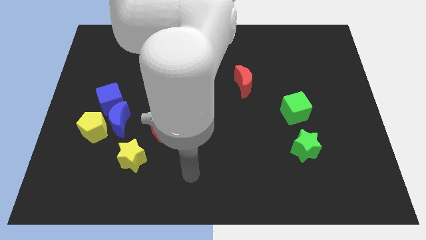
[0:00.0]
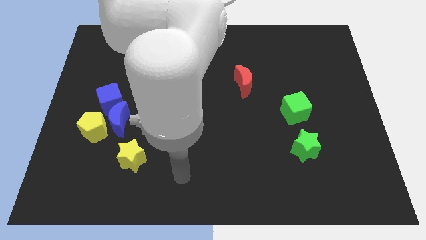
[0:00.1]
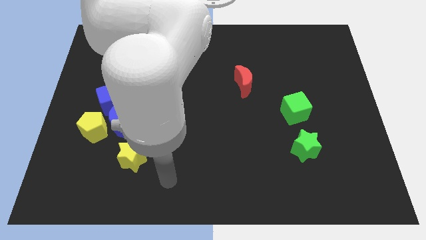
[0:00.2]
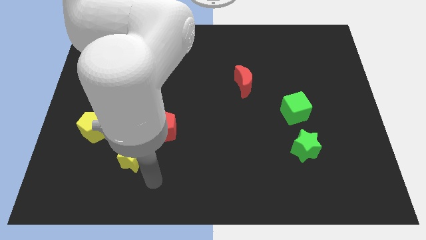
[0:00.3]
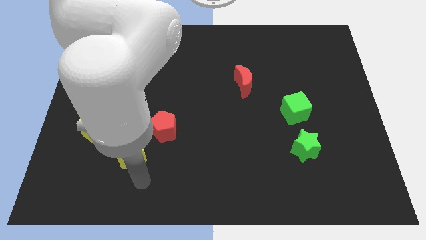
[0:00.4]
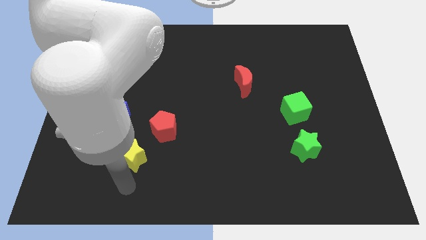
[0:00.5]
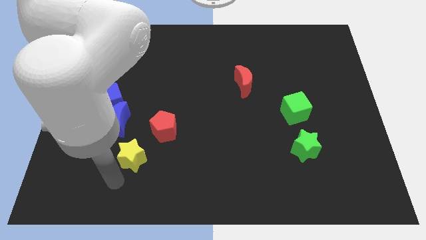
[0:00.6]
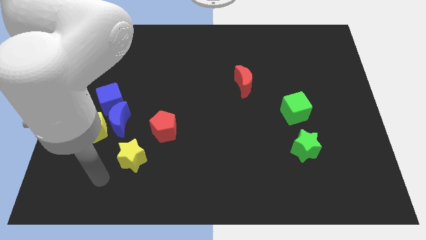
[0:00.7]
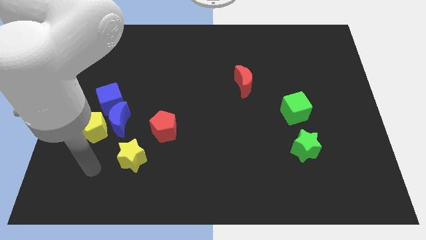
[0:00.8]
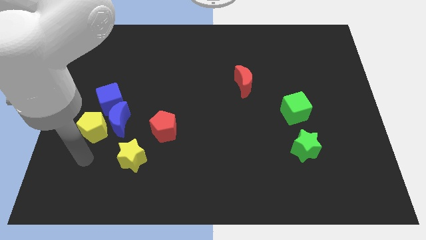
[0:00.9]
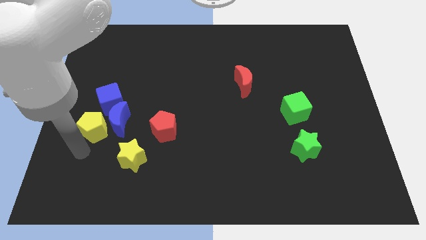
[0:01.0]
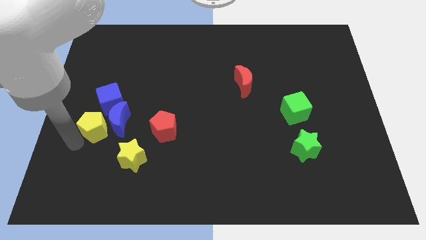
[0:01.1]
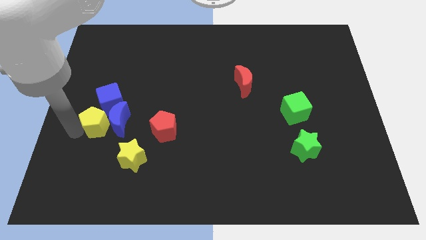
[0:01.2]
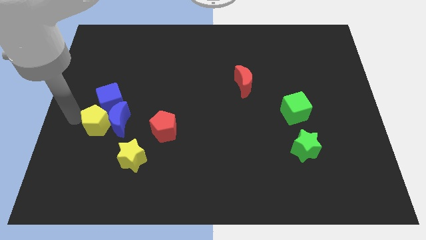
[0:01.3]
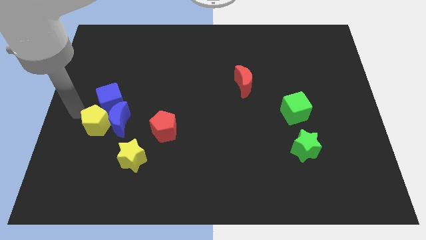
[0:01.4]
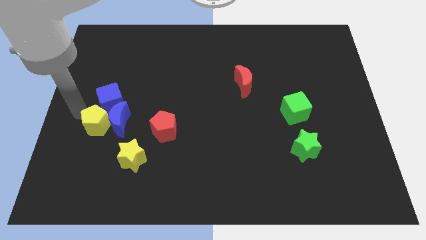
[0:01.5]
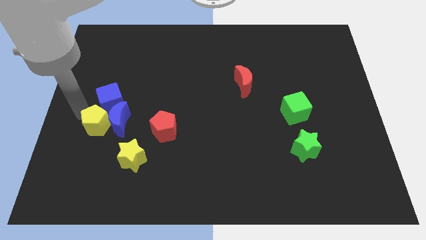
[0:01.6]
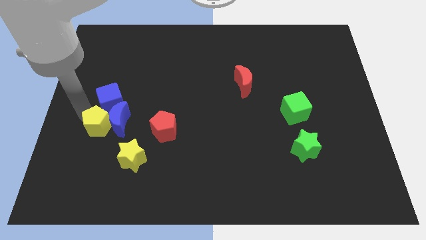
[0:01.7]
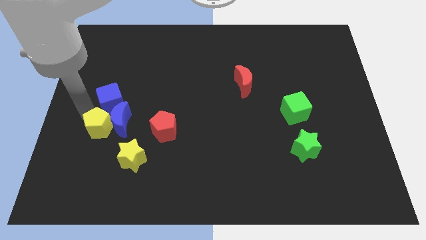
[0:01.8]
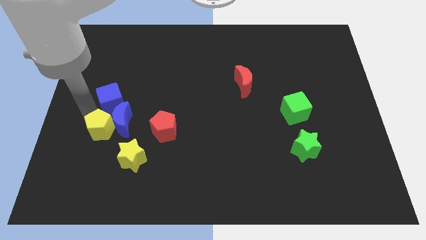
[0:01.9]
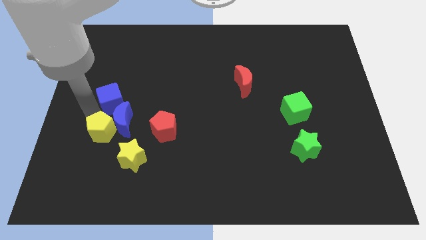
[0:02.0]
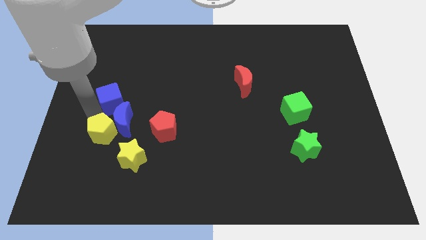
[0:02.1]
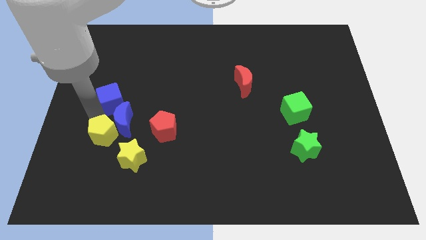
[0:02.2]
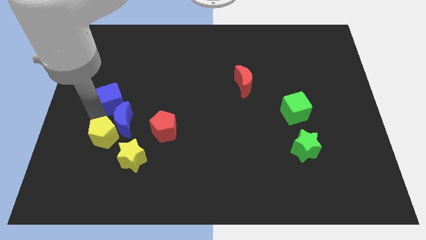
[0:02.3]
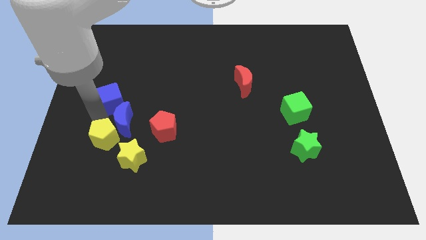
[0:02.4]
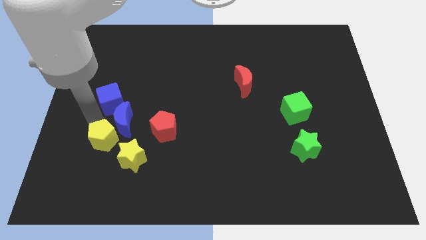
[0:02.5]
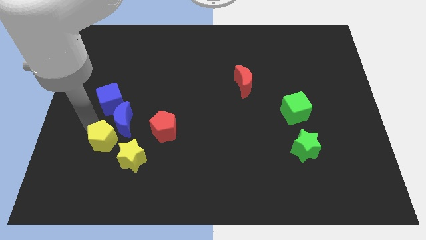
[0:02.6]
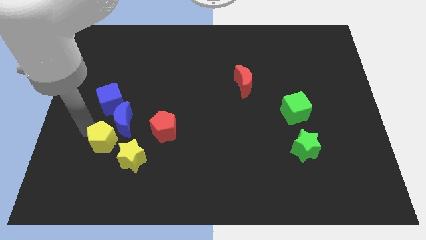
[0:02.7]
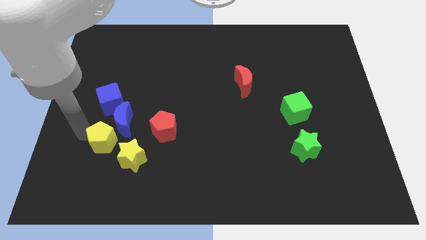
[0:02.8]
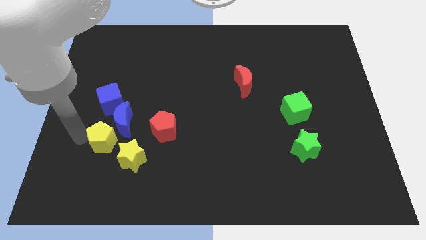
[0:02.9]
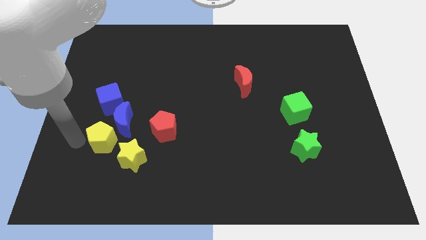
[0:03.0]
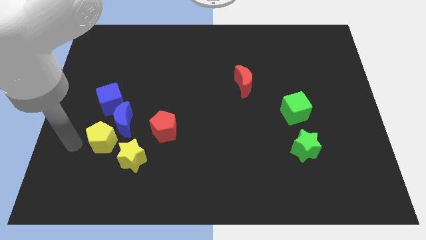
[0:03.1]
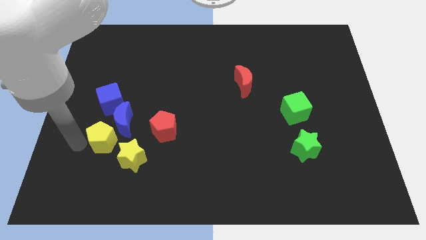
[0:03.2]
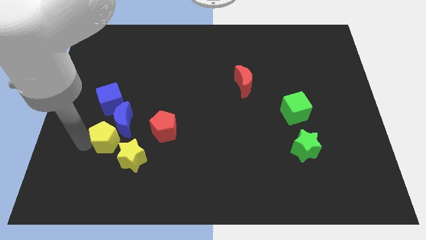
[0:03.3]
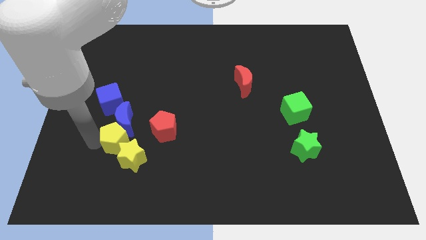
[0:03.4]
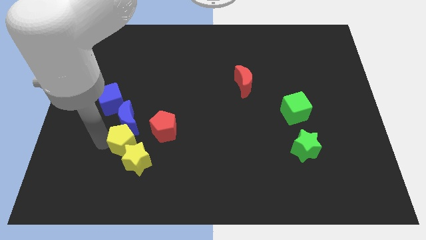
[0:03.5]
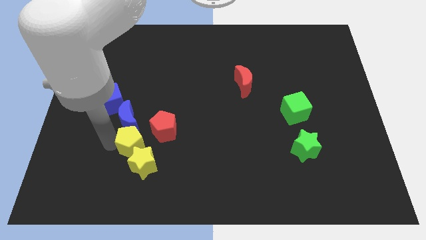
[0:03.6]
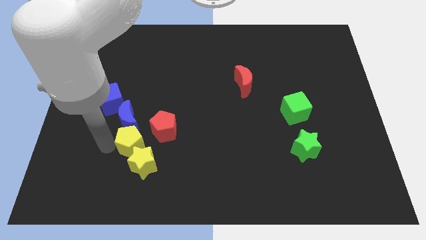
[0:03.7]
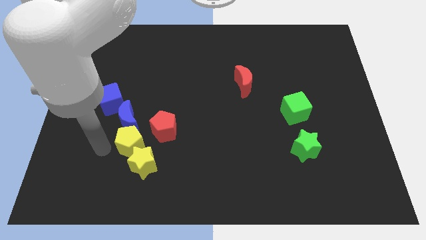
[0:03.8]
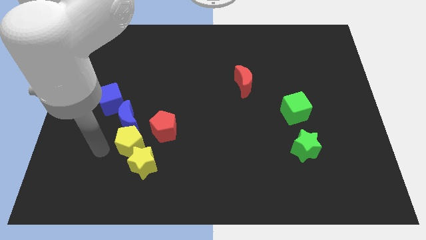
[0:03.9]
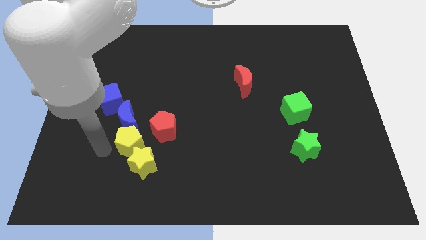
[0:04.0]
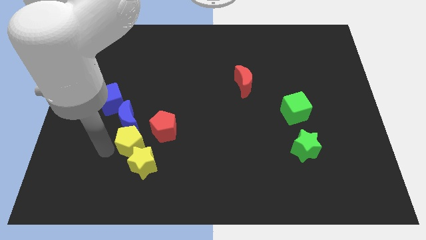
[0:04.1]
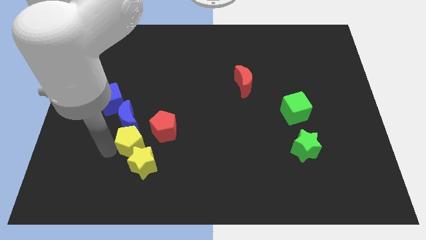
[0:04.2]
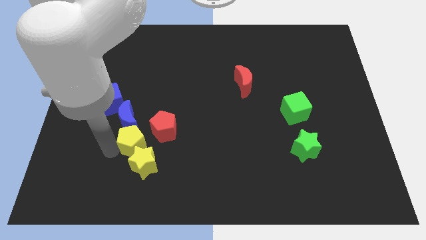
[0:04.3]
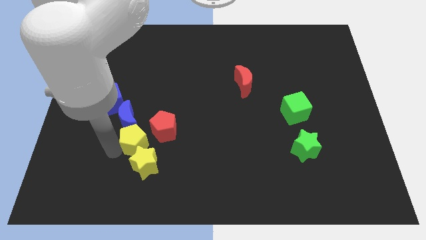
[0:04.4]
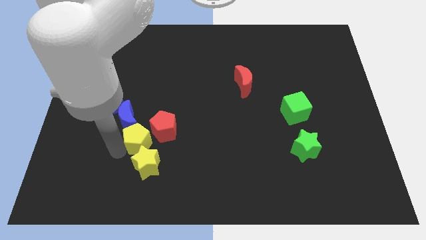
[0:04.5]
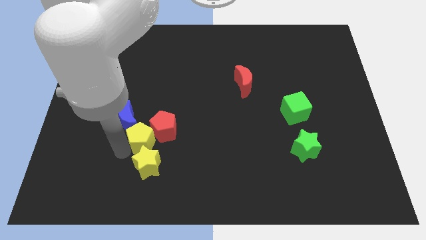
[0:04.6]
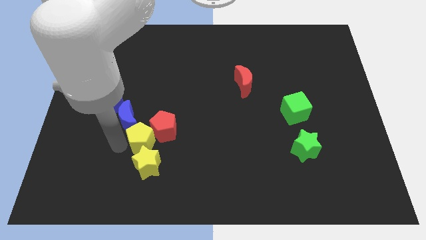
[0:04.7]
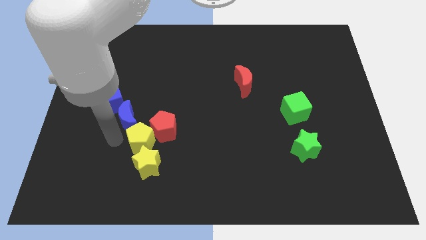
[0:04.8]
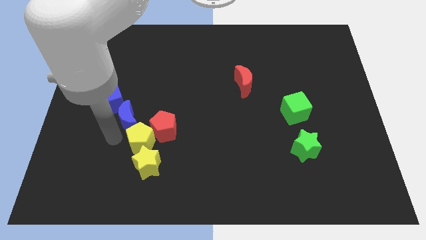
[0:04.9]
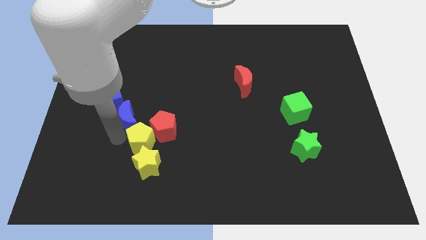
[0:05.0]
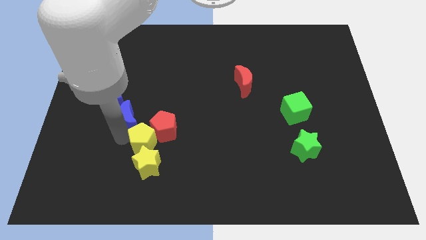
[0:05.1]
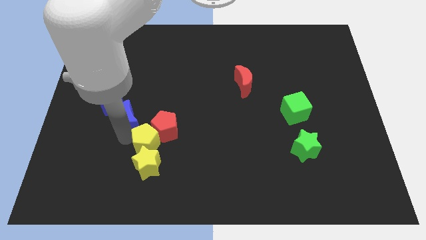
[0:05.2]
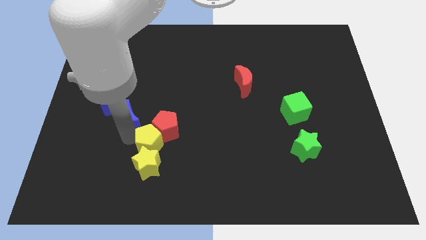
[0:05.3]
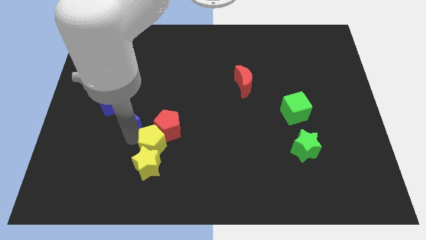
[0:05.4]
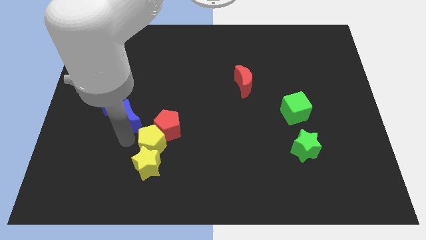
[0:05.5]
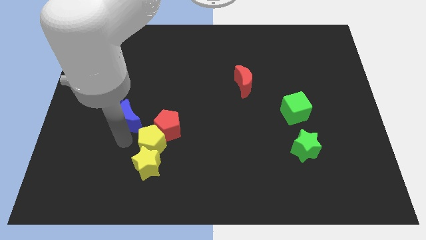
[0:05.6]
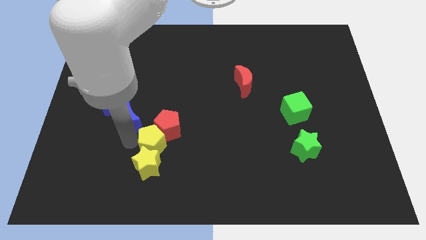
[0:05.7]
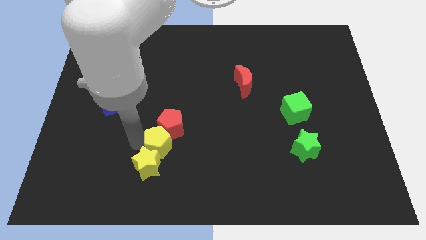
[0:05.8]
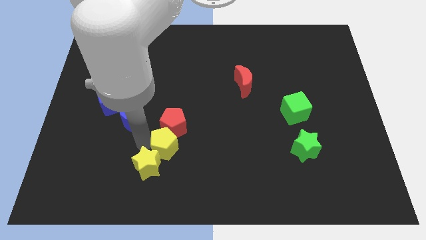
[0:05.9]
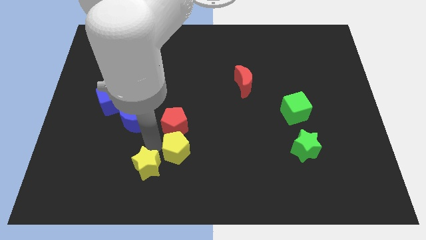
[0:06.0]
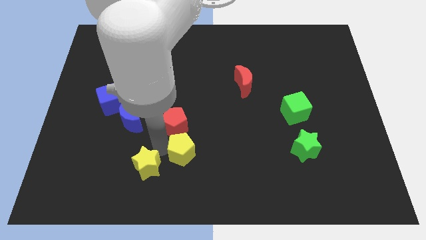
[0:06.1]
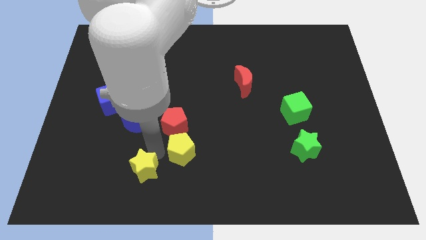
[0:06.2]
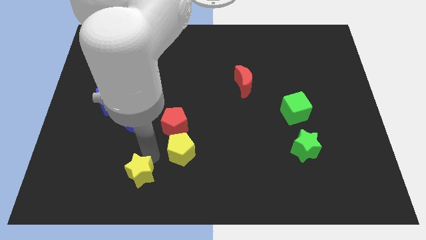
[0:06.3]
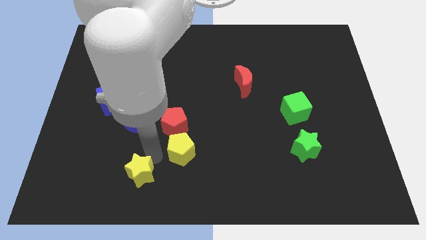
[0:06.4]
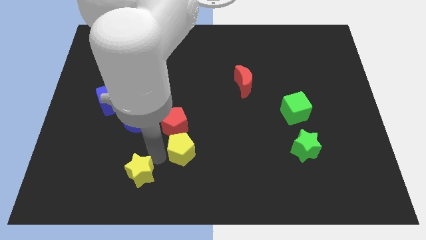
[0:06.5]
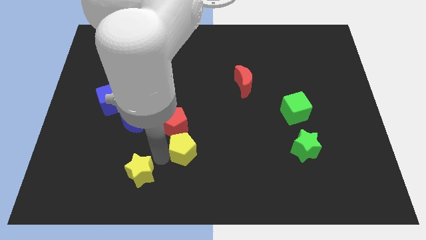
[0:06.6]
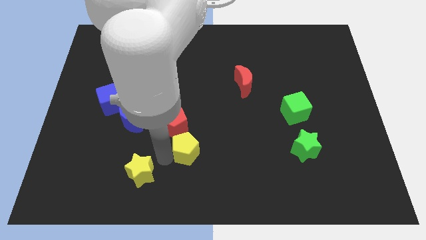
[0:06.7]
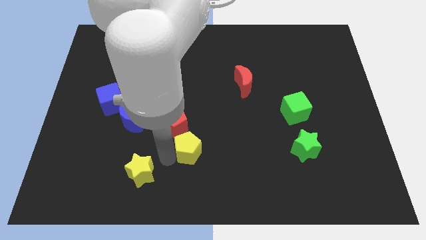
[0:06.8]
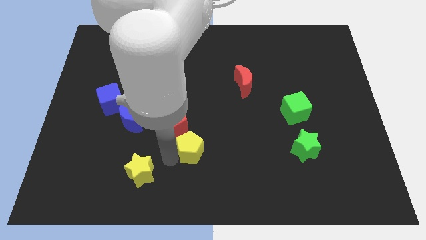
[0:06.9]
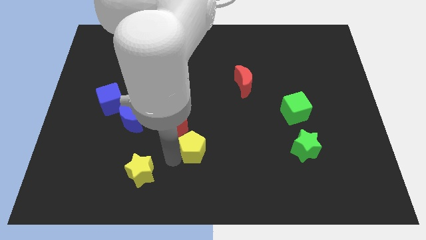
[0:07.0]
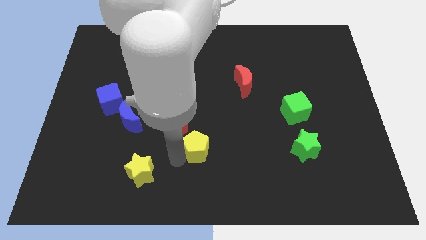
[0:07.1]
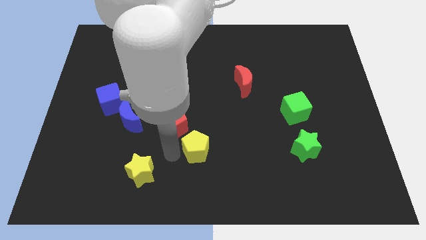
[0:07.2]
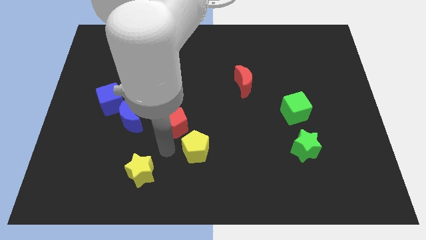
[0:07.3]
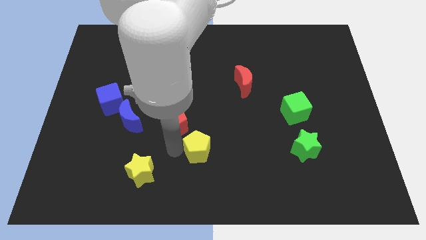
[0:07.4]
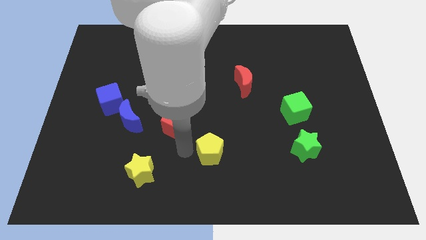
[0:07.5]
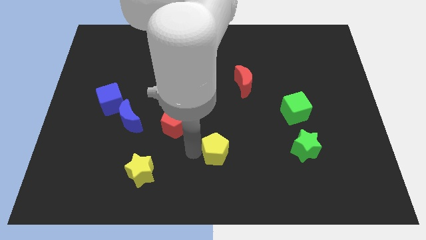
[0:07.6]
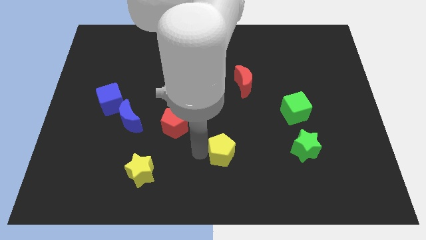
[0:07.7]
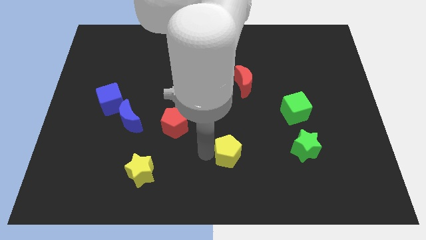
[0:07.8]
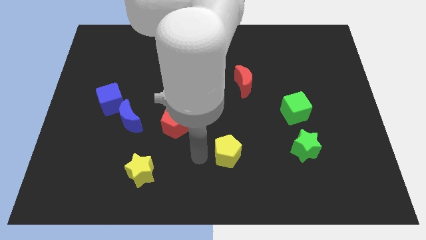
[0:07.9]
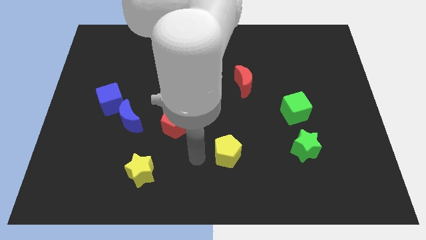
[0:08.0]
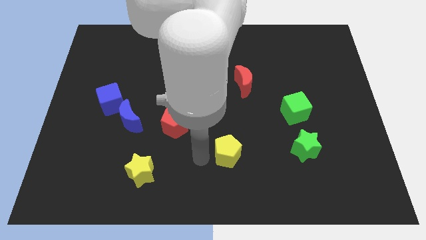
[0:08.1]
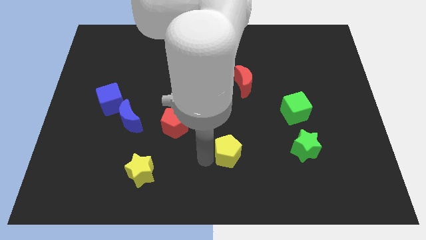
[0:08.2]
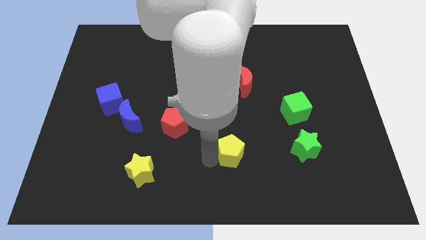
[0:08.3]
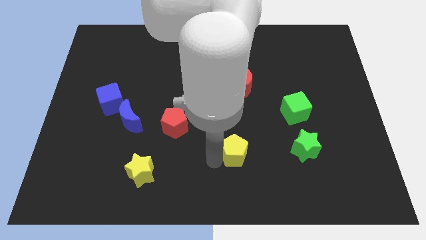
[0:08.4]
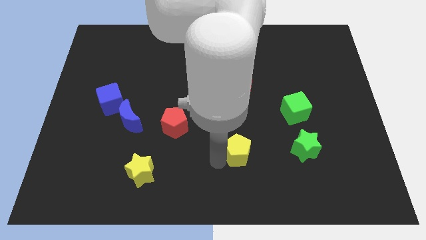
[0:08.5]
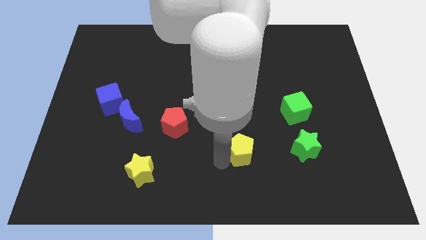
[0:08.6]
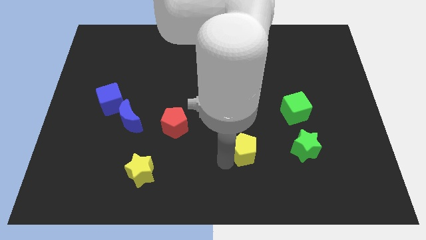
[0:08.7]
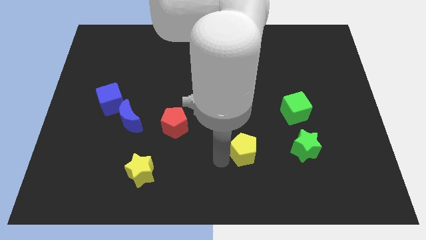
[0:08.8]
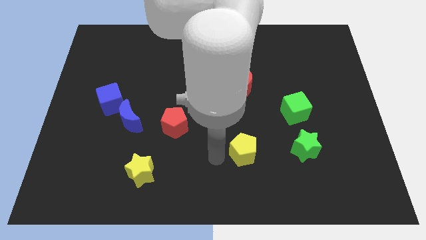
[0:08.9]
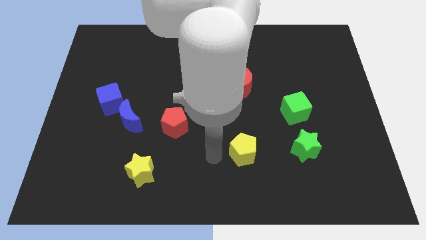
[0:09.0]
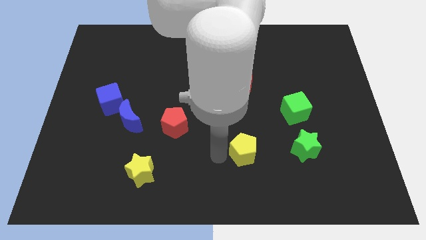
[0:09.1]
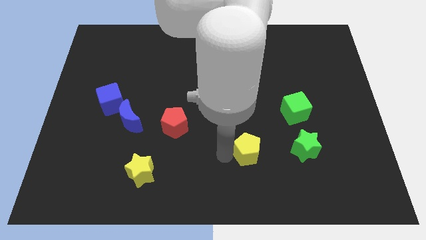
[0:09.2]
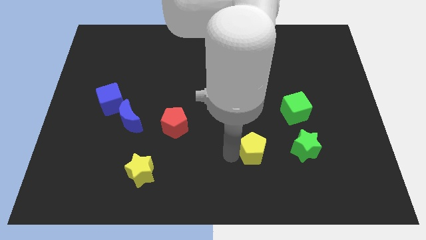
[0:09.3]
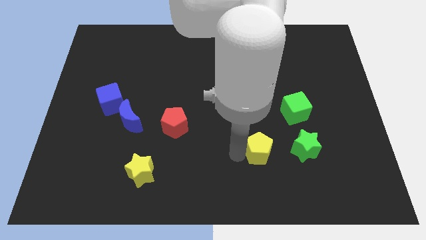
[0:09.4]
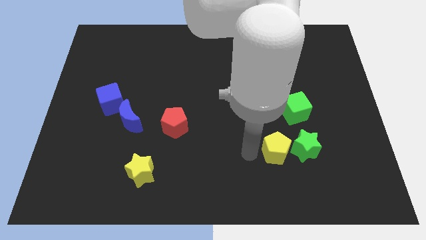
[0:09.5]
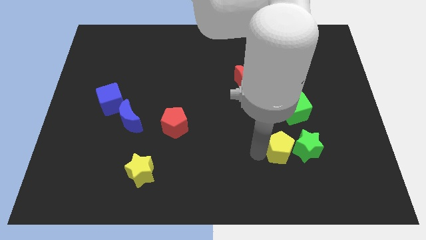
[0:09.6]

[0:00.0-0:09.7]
move the yellow pentagon to the green star
